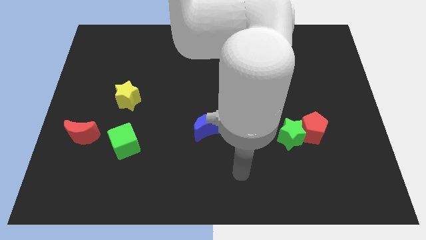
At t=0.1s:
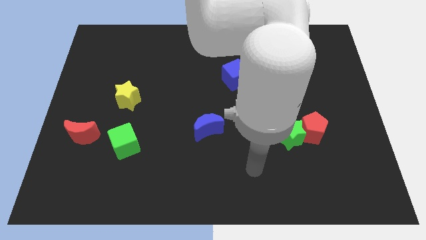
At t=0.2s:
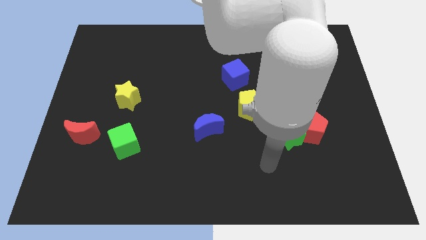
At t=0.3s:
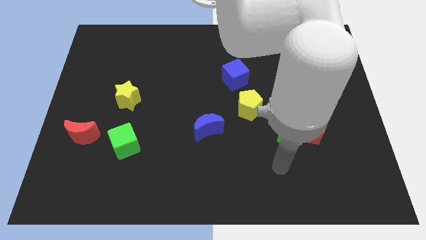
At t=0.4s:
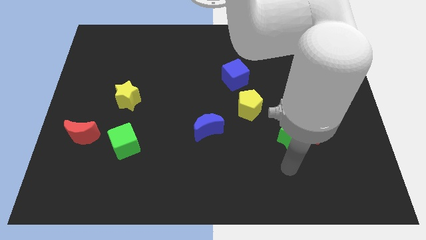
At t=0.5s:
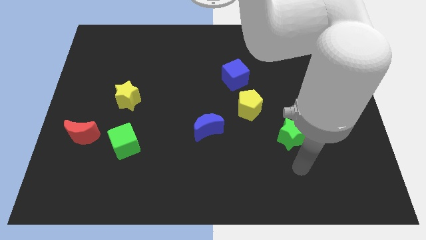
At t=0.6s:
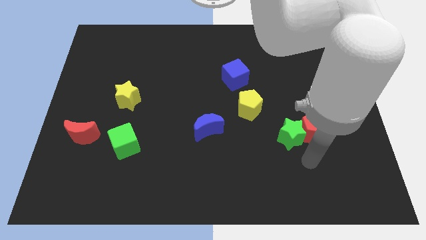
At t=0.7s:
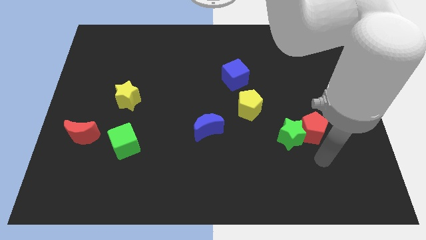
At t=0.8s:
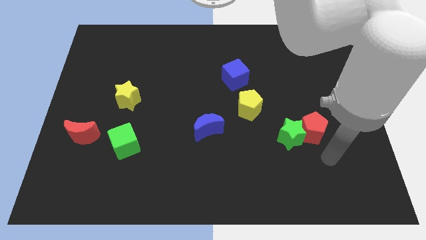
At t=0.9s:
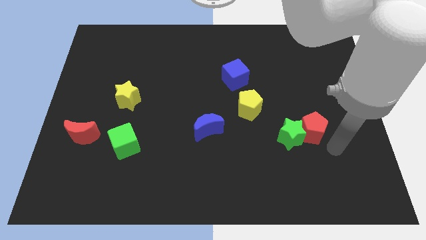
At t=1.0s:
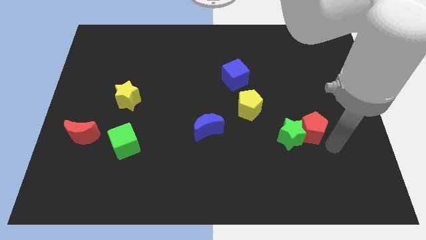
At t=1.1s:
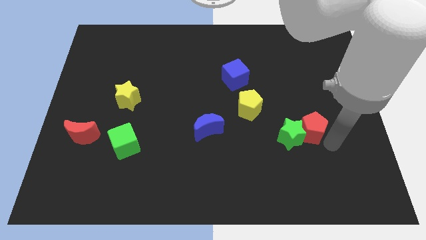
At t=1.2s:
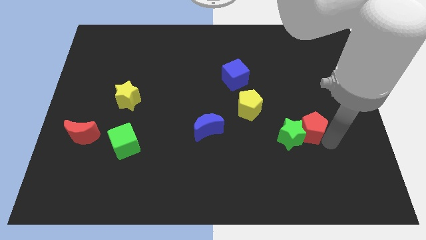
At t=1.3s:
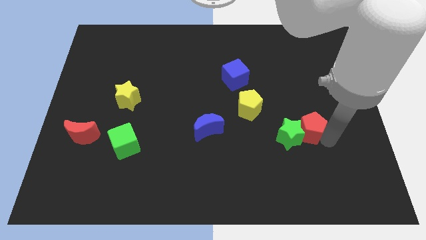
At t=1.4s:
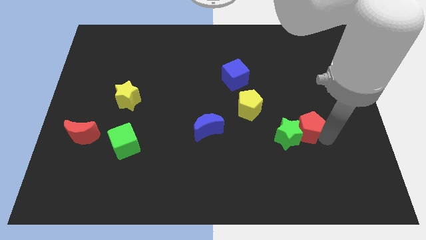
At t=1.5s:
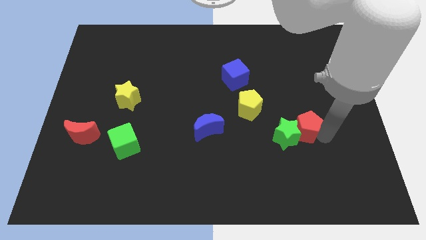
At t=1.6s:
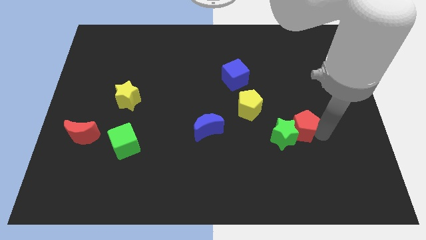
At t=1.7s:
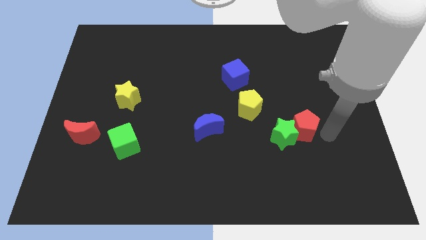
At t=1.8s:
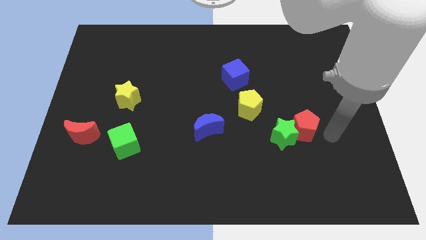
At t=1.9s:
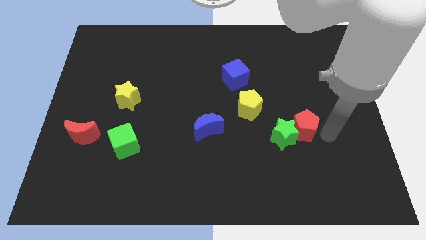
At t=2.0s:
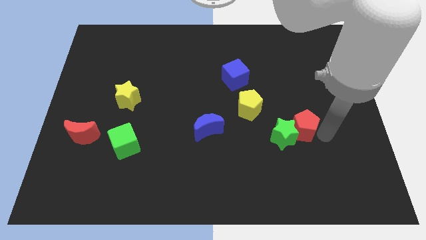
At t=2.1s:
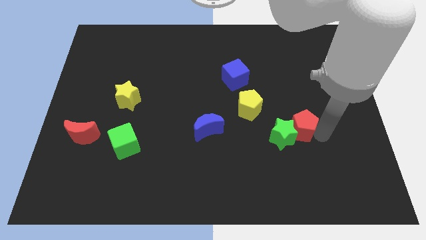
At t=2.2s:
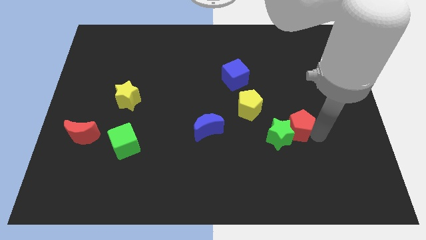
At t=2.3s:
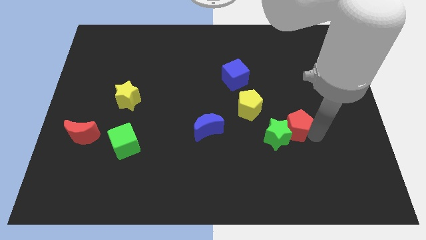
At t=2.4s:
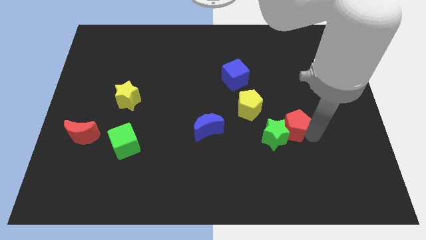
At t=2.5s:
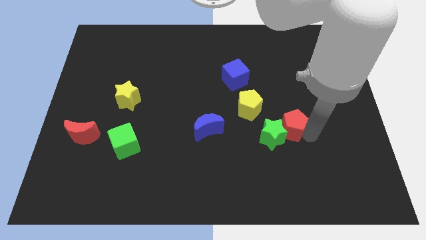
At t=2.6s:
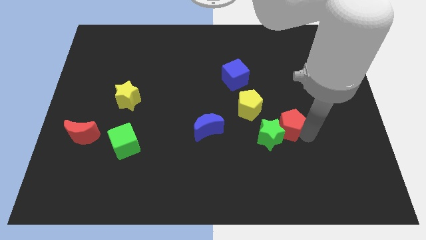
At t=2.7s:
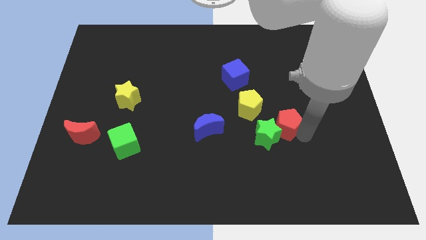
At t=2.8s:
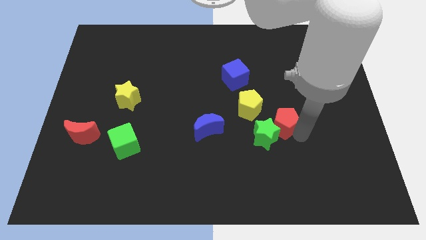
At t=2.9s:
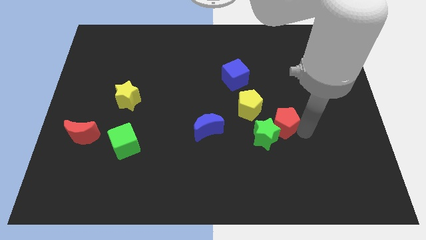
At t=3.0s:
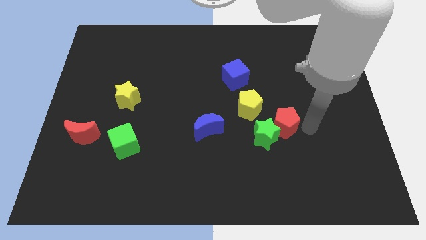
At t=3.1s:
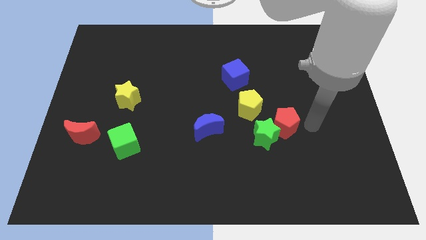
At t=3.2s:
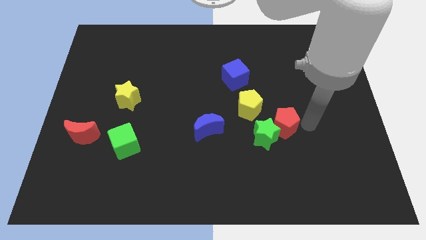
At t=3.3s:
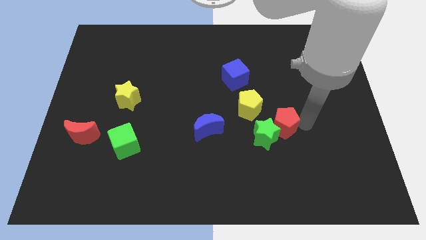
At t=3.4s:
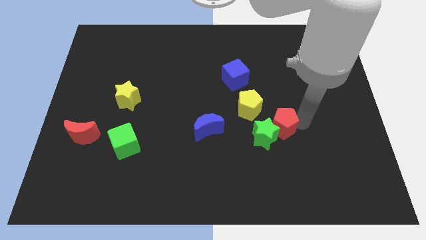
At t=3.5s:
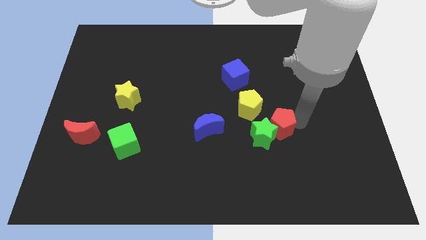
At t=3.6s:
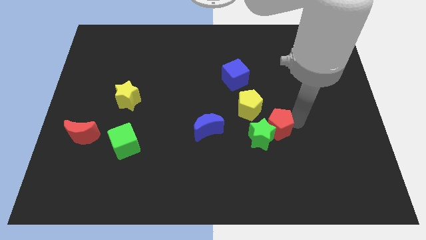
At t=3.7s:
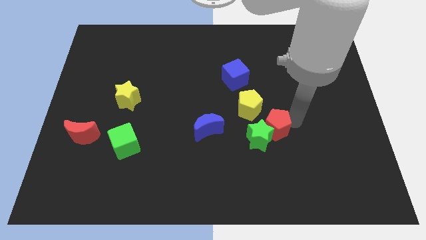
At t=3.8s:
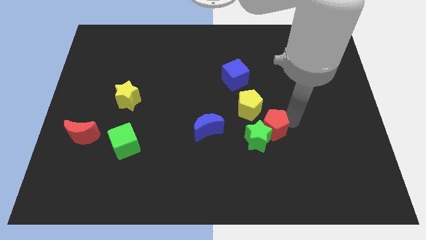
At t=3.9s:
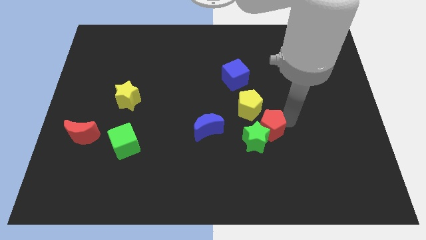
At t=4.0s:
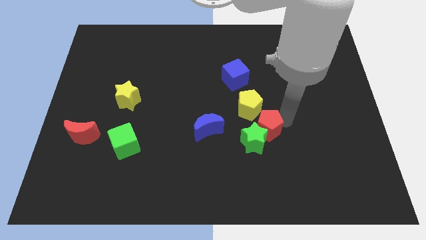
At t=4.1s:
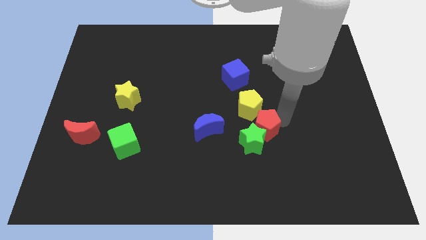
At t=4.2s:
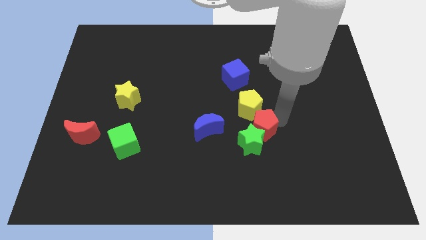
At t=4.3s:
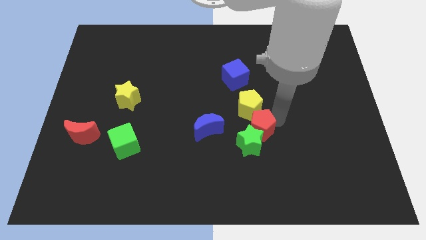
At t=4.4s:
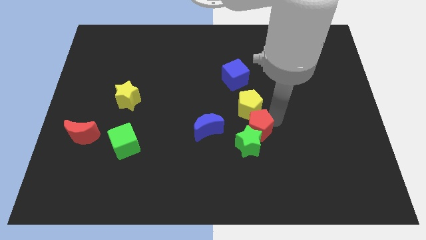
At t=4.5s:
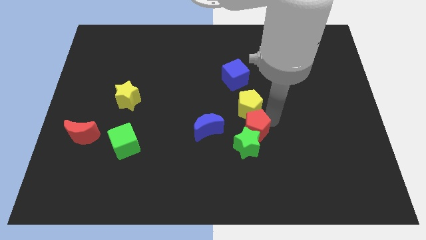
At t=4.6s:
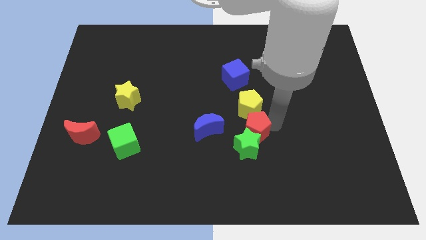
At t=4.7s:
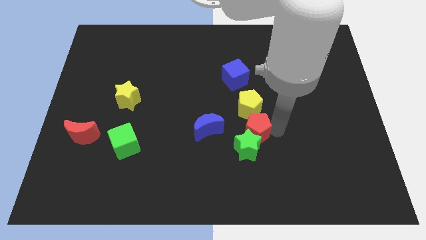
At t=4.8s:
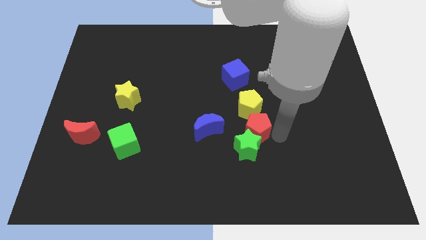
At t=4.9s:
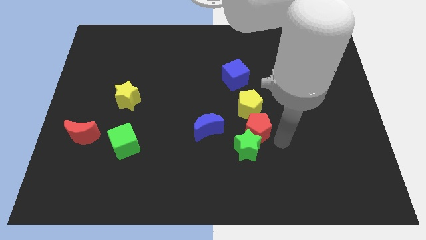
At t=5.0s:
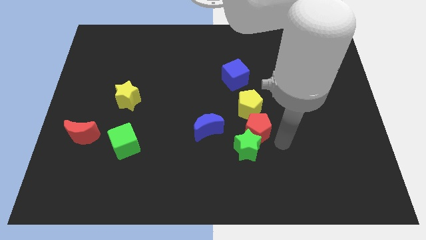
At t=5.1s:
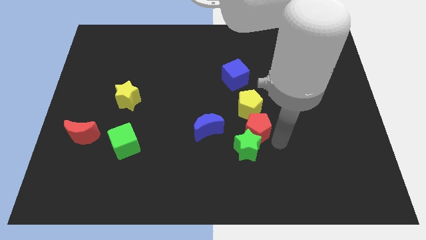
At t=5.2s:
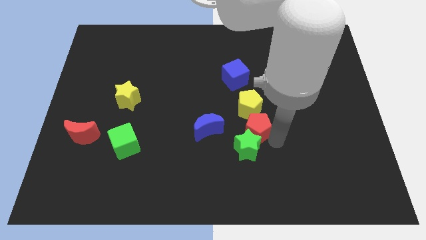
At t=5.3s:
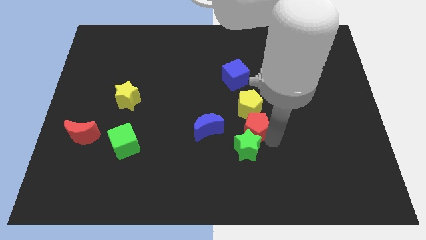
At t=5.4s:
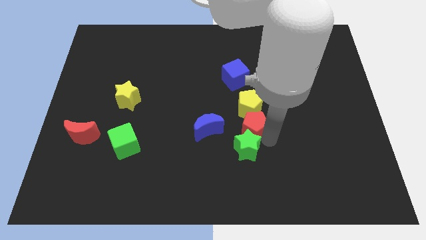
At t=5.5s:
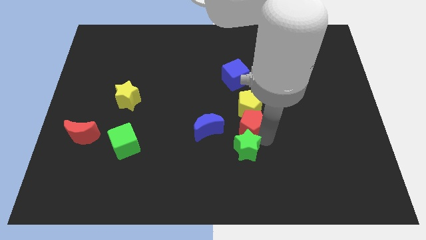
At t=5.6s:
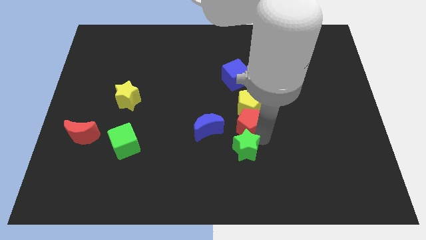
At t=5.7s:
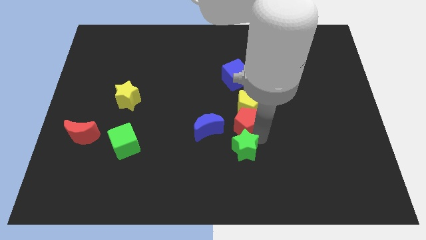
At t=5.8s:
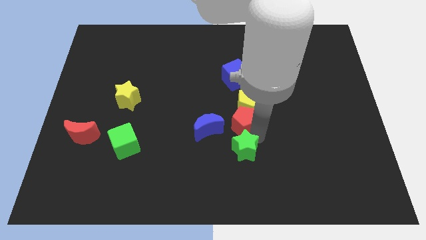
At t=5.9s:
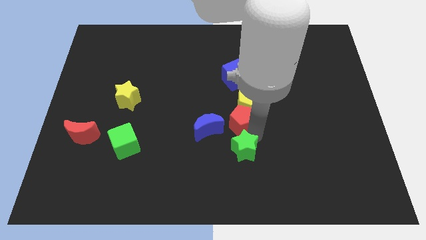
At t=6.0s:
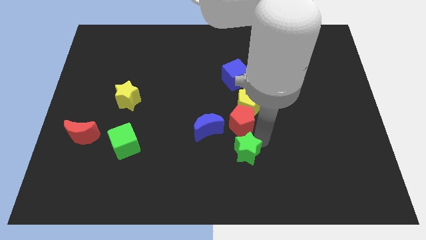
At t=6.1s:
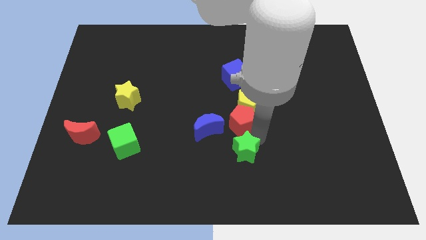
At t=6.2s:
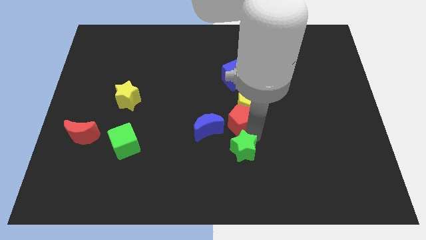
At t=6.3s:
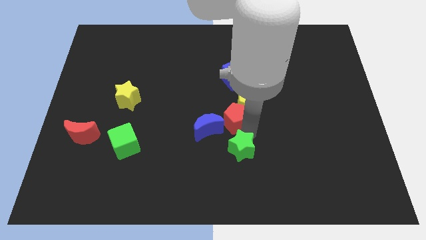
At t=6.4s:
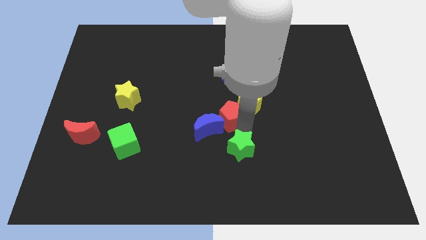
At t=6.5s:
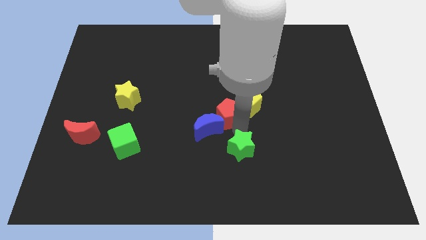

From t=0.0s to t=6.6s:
slide the red pentagon to the top side of the blue moon
